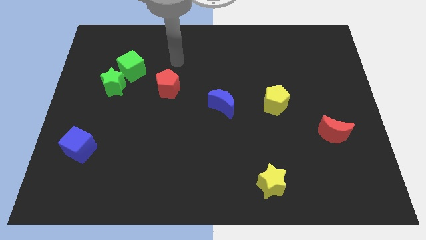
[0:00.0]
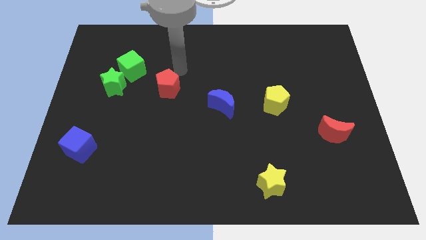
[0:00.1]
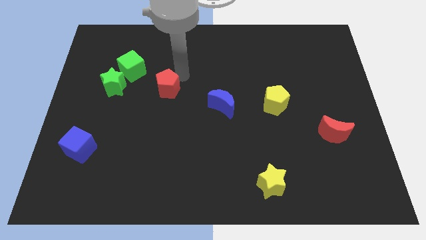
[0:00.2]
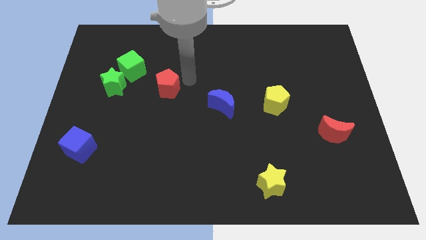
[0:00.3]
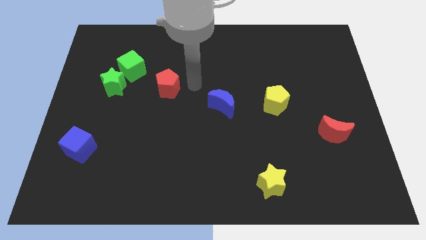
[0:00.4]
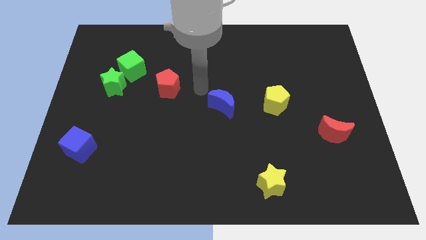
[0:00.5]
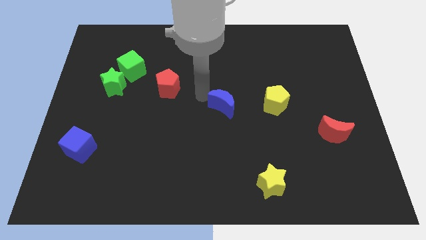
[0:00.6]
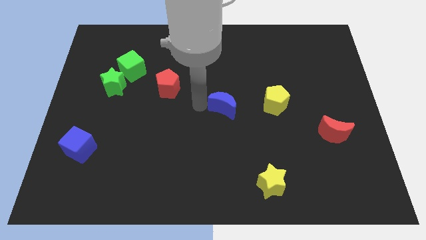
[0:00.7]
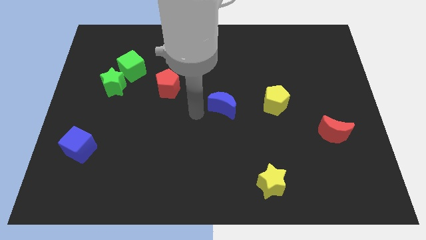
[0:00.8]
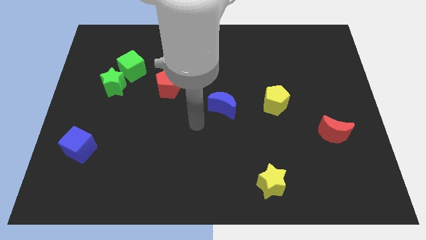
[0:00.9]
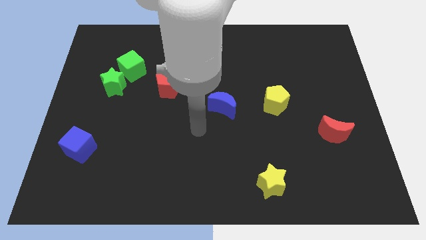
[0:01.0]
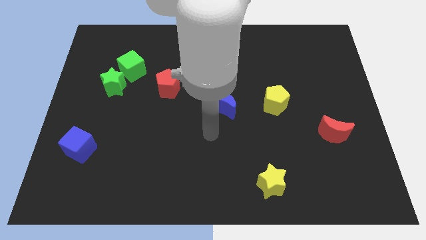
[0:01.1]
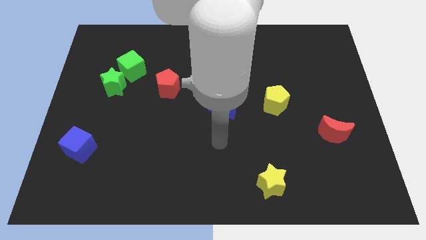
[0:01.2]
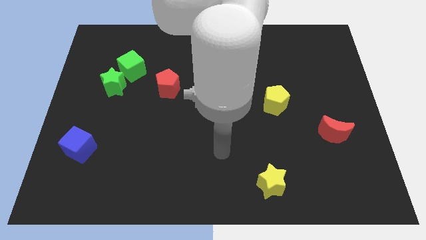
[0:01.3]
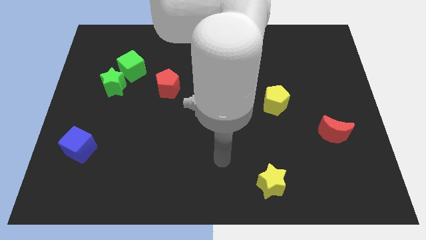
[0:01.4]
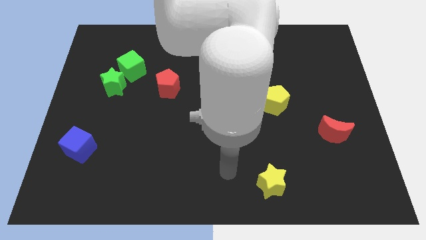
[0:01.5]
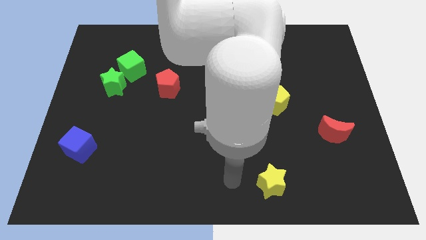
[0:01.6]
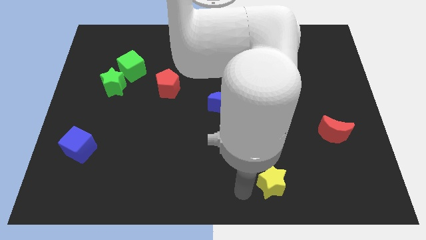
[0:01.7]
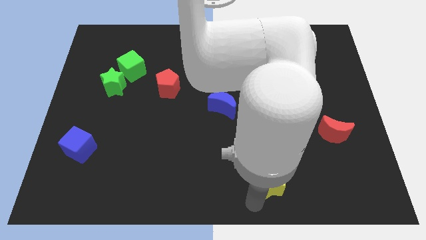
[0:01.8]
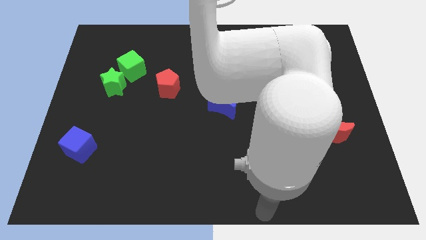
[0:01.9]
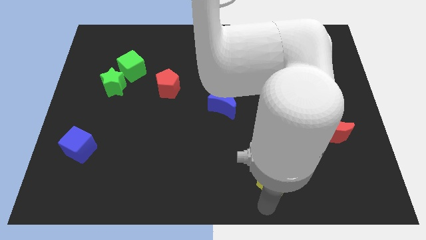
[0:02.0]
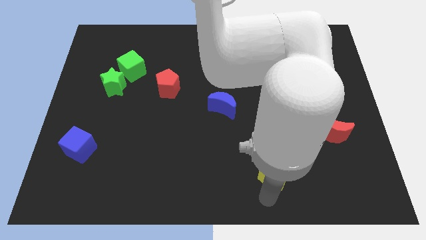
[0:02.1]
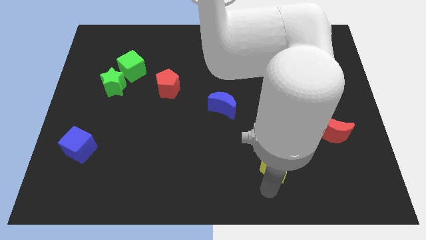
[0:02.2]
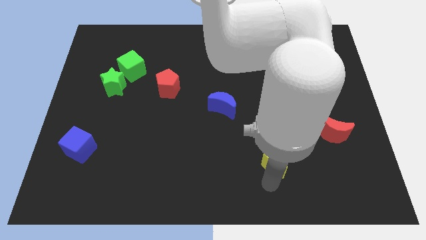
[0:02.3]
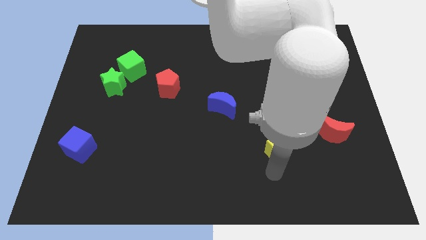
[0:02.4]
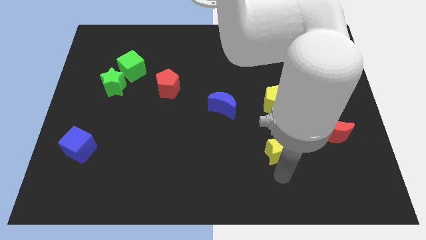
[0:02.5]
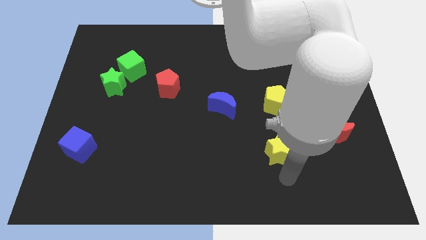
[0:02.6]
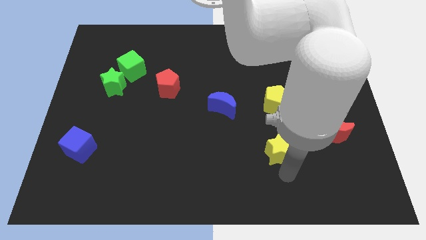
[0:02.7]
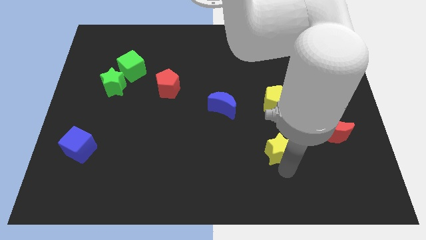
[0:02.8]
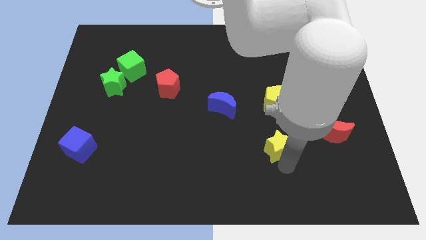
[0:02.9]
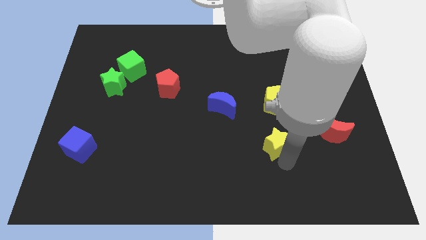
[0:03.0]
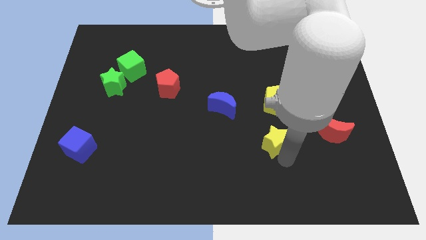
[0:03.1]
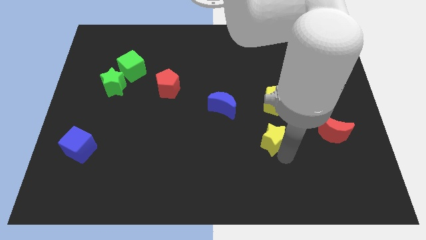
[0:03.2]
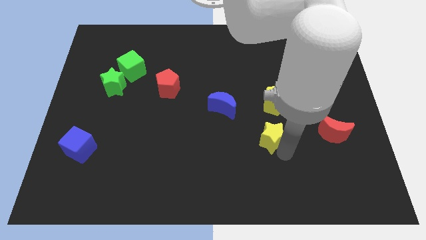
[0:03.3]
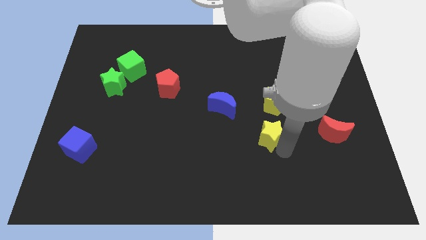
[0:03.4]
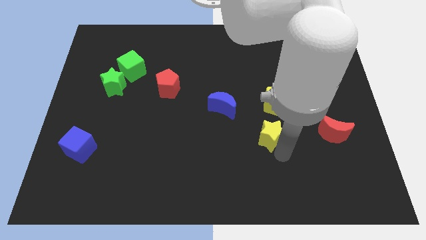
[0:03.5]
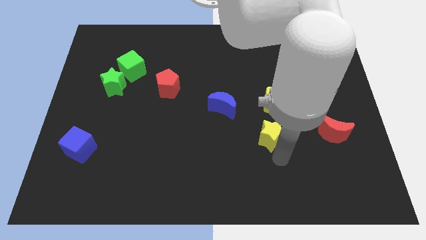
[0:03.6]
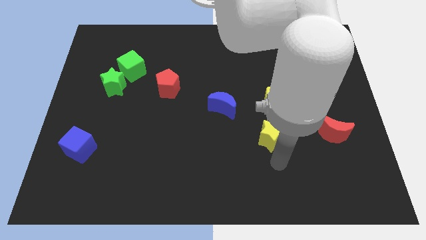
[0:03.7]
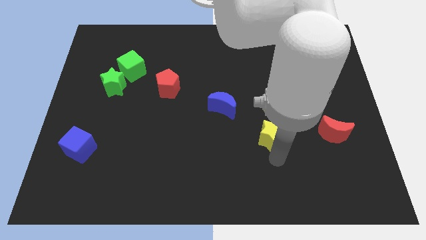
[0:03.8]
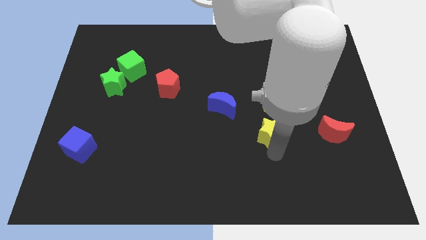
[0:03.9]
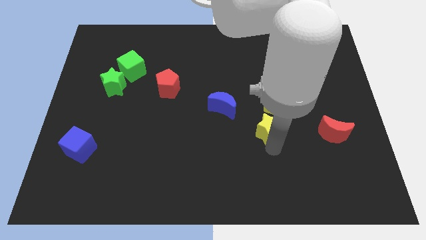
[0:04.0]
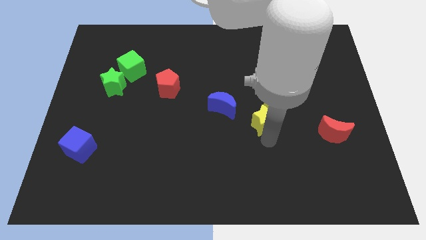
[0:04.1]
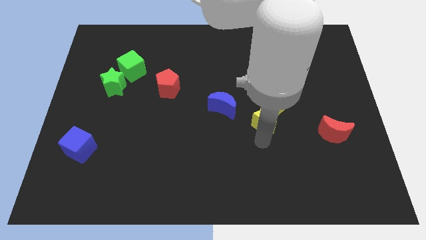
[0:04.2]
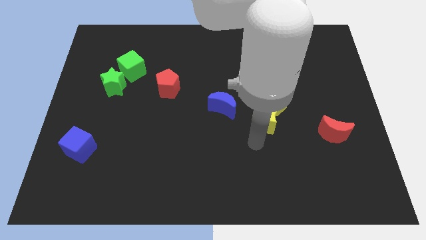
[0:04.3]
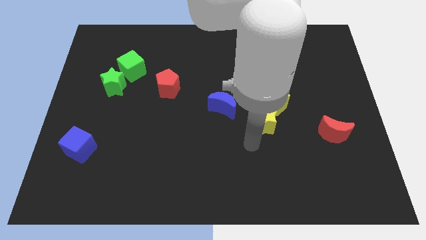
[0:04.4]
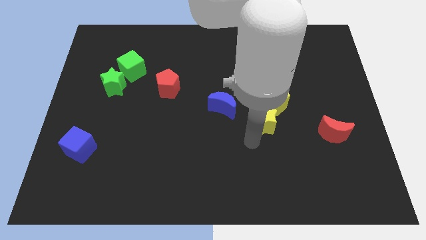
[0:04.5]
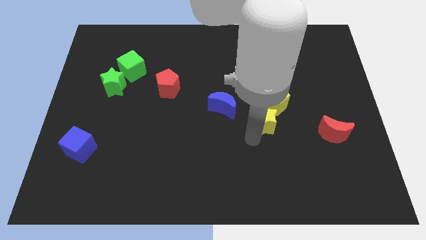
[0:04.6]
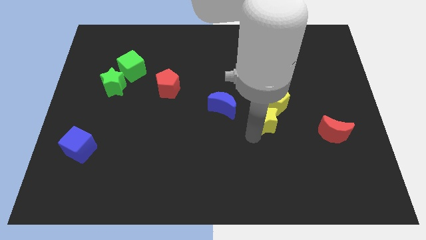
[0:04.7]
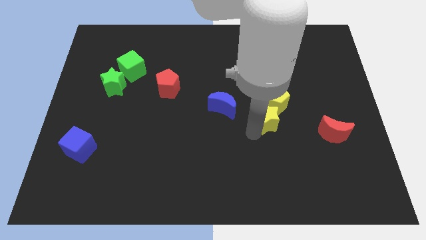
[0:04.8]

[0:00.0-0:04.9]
move the yellow star to the yellow pentagon

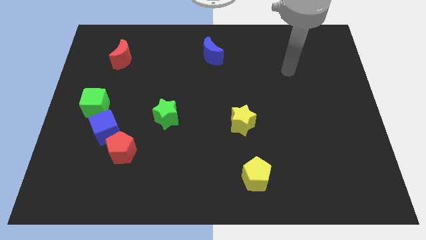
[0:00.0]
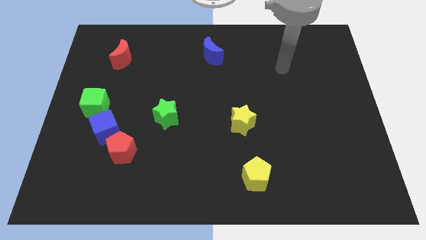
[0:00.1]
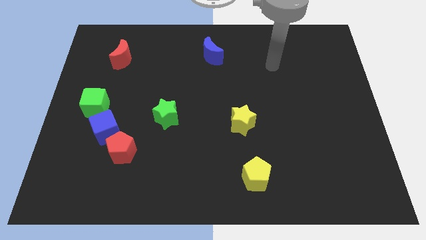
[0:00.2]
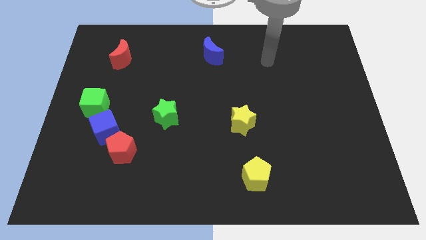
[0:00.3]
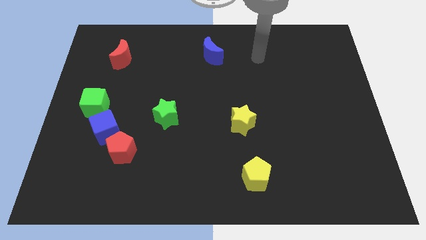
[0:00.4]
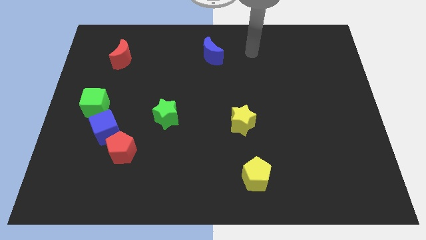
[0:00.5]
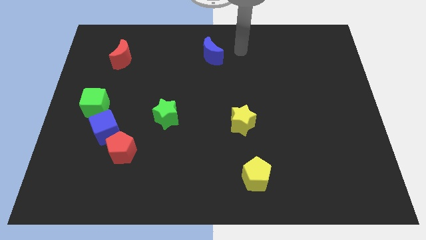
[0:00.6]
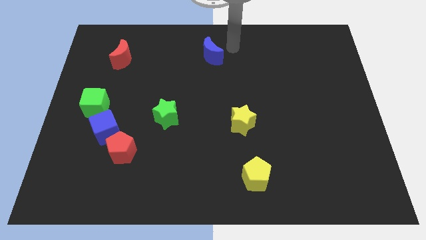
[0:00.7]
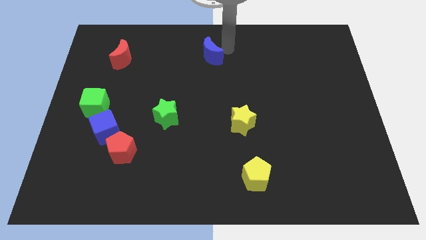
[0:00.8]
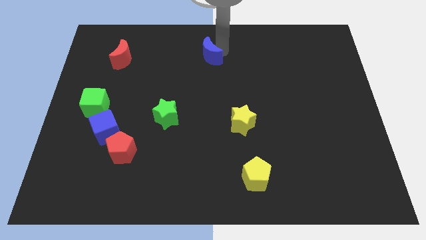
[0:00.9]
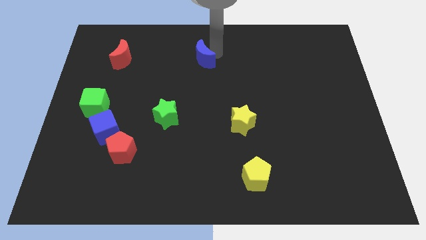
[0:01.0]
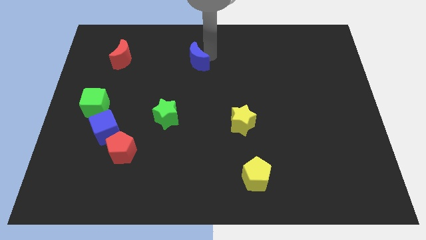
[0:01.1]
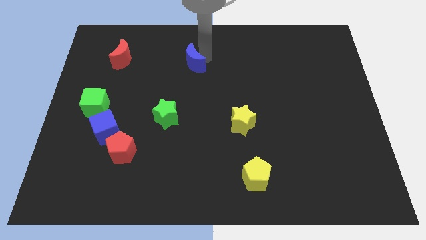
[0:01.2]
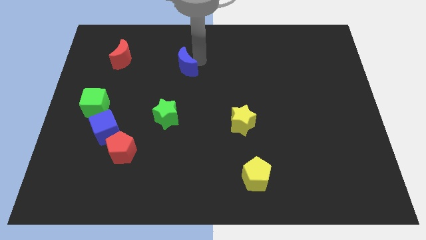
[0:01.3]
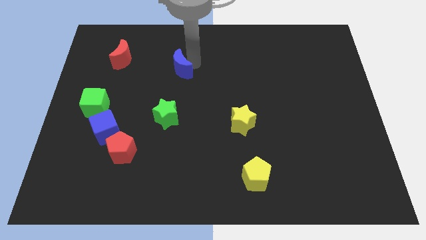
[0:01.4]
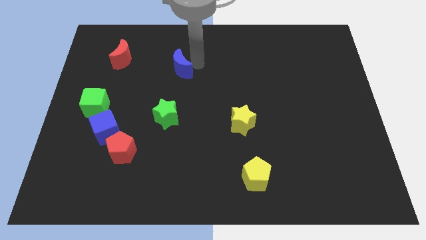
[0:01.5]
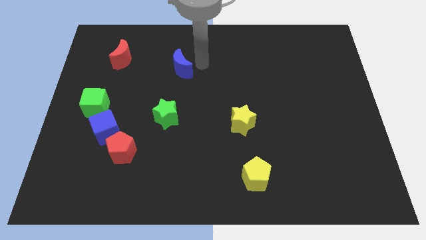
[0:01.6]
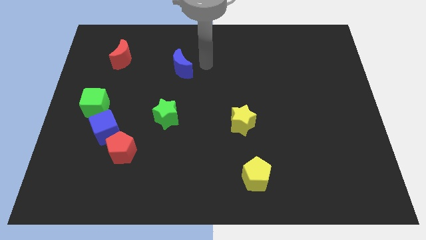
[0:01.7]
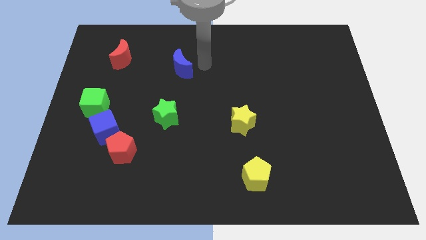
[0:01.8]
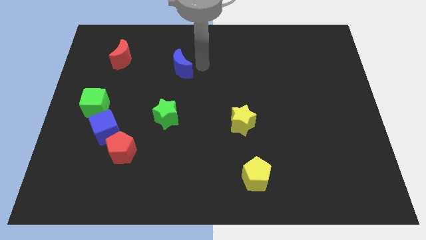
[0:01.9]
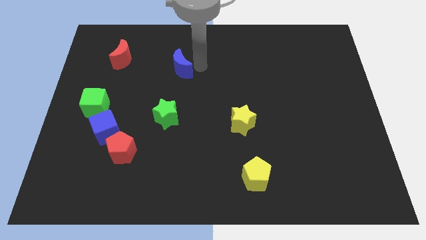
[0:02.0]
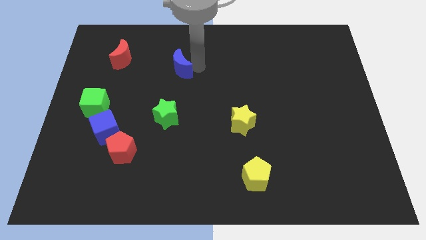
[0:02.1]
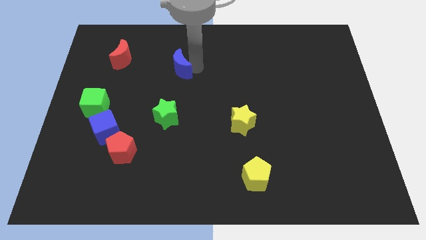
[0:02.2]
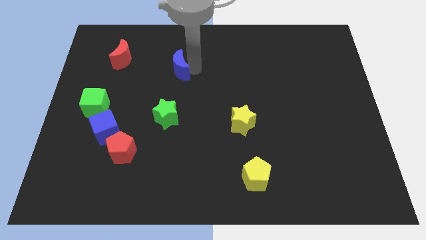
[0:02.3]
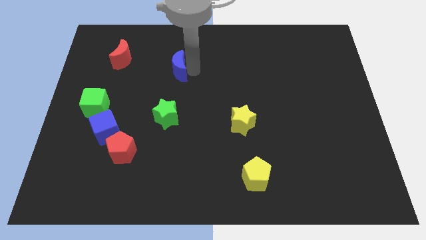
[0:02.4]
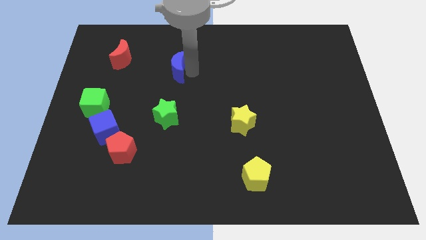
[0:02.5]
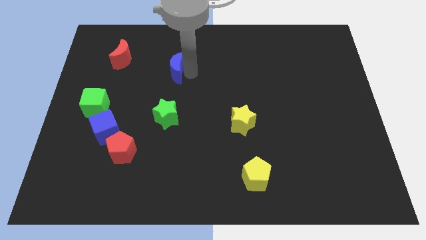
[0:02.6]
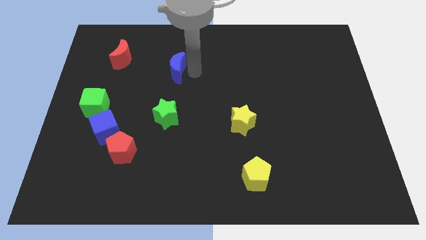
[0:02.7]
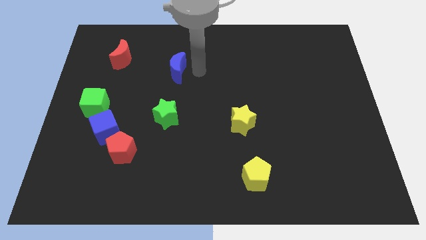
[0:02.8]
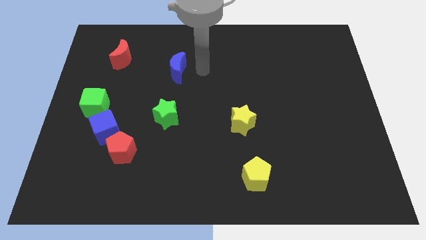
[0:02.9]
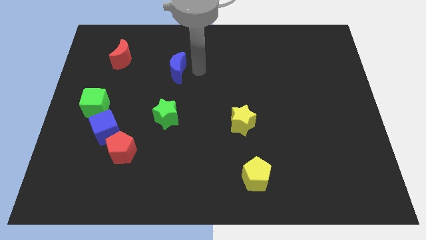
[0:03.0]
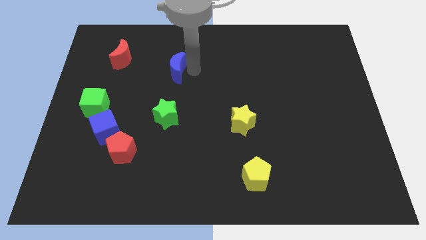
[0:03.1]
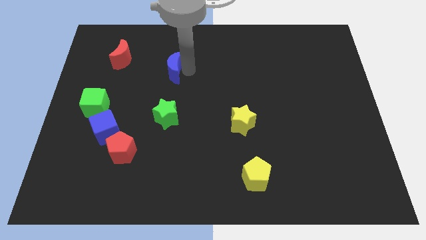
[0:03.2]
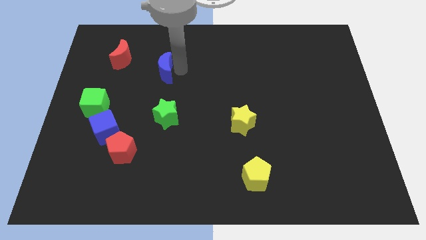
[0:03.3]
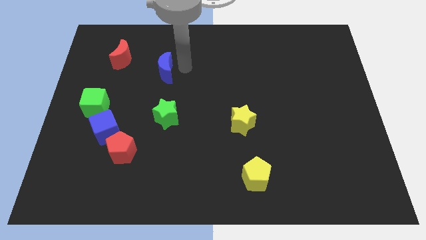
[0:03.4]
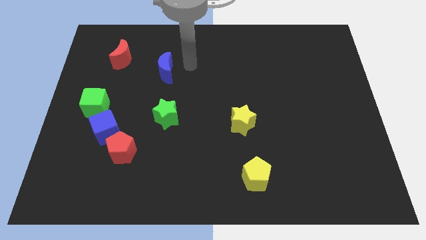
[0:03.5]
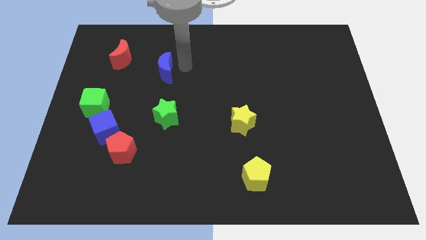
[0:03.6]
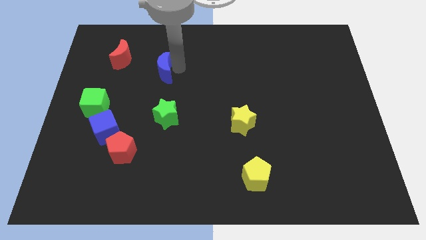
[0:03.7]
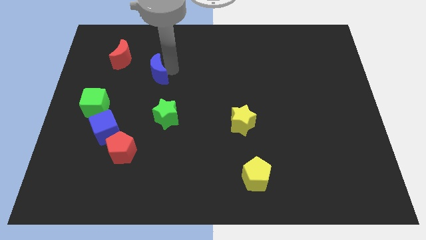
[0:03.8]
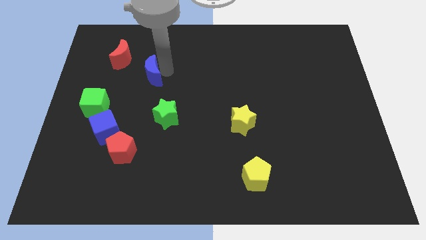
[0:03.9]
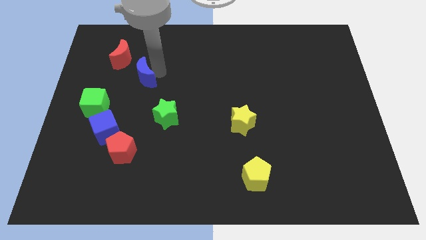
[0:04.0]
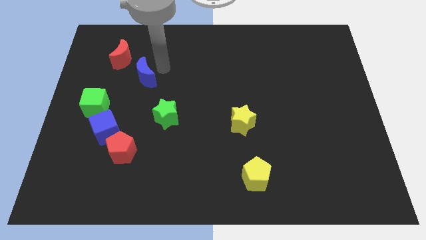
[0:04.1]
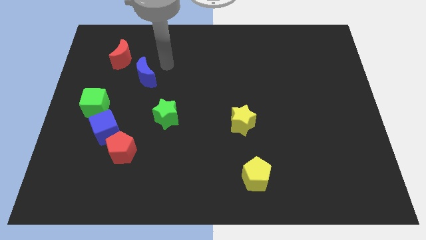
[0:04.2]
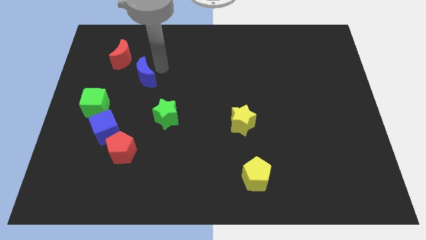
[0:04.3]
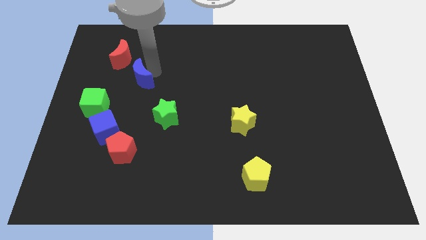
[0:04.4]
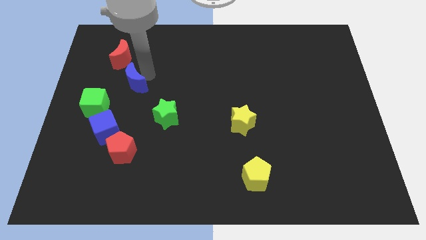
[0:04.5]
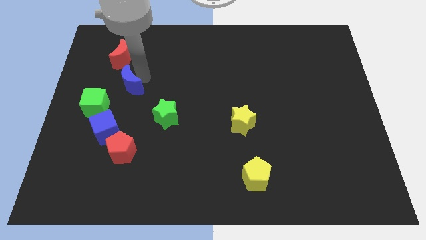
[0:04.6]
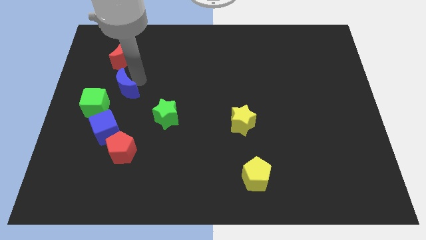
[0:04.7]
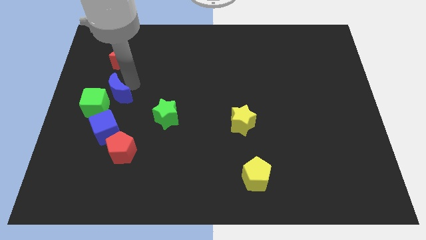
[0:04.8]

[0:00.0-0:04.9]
put the blue moon next to the green cube
